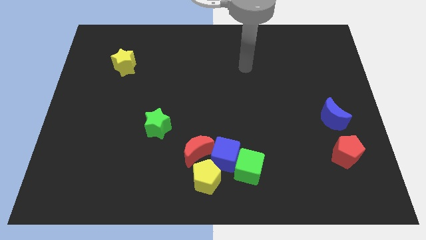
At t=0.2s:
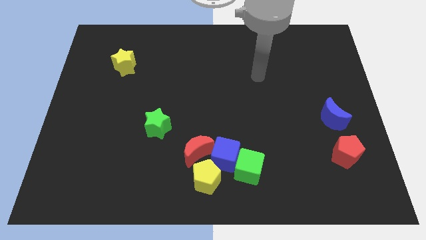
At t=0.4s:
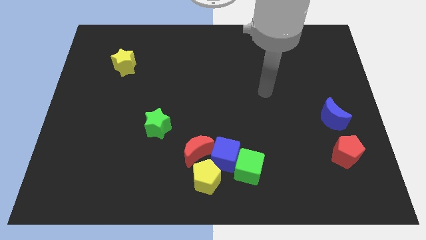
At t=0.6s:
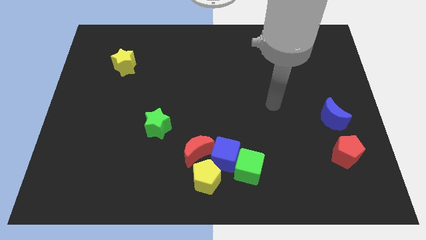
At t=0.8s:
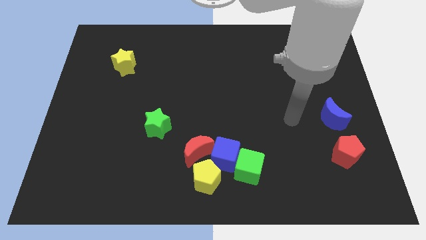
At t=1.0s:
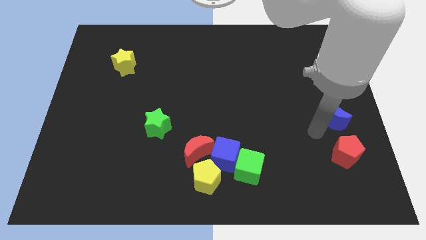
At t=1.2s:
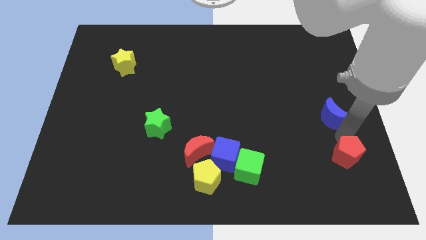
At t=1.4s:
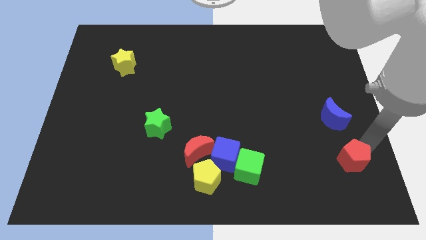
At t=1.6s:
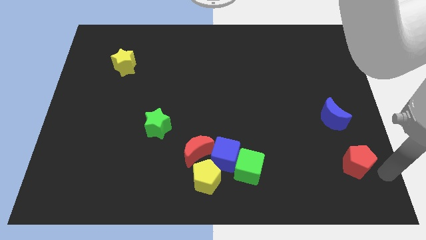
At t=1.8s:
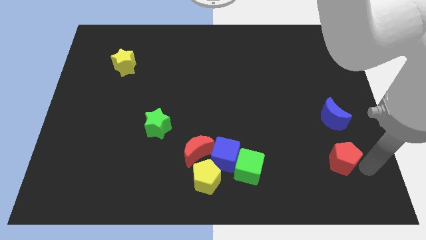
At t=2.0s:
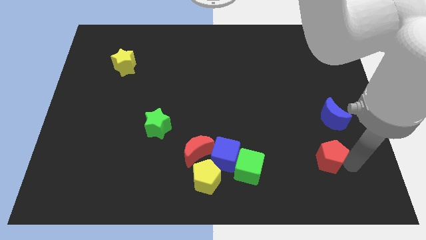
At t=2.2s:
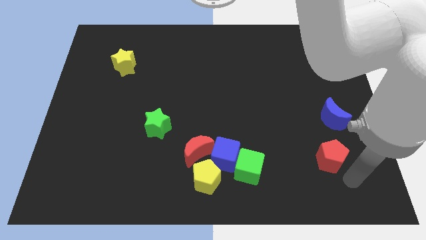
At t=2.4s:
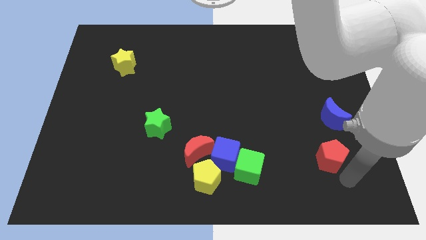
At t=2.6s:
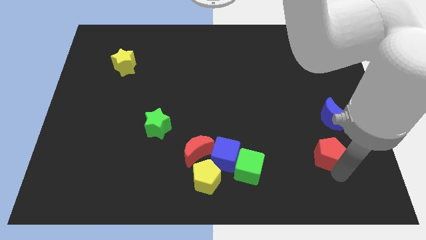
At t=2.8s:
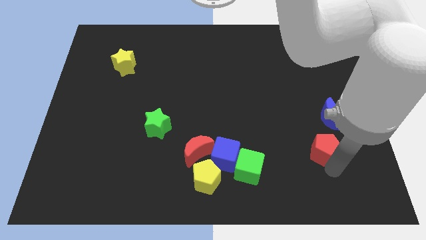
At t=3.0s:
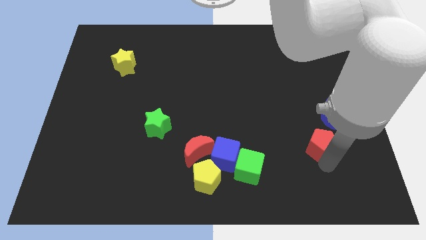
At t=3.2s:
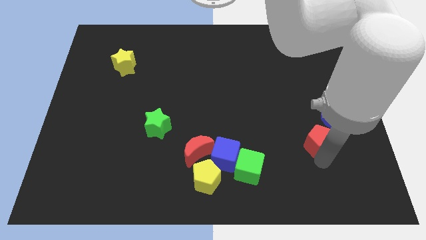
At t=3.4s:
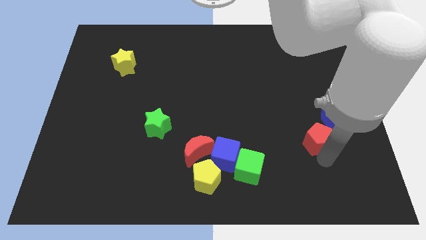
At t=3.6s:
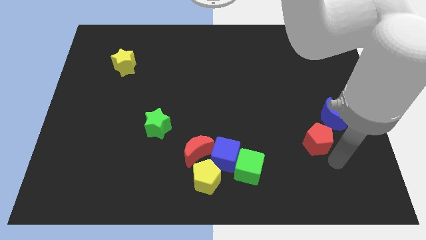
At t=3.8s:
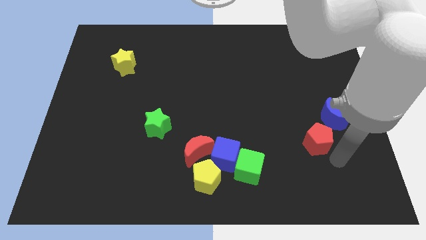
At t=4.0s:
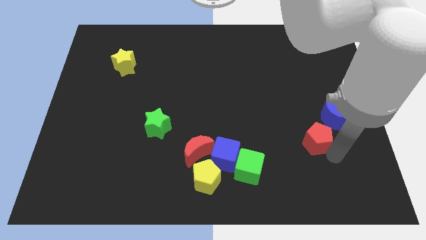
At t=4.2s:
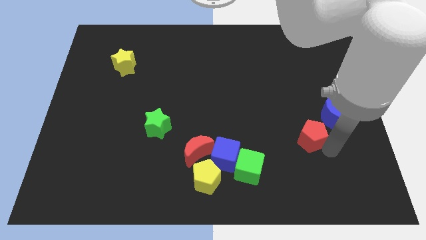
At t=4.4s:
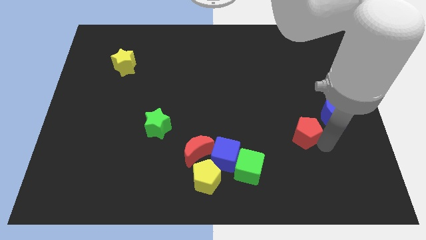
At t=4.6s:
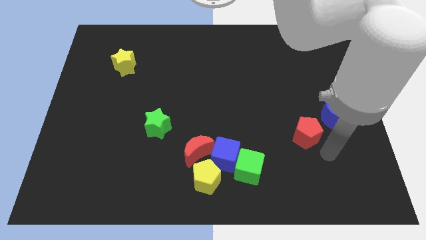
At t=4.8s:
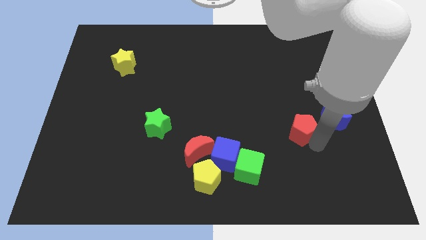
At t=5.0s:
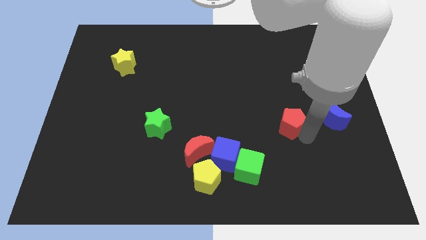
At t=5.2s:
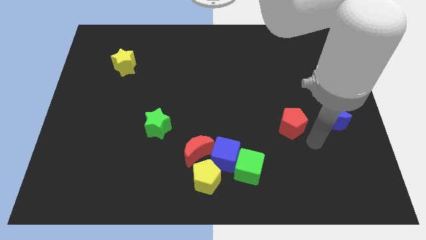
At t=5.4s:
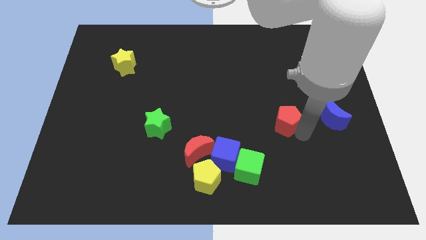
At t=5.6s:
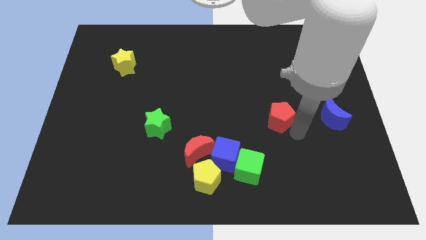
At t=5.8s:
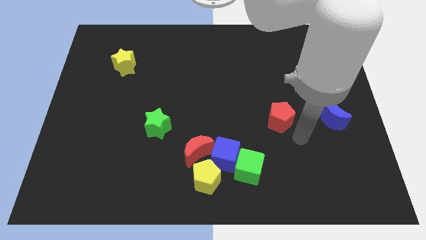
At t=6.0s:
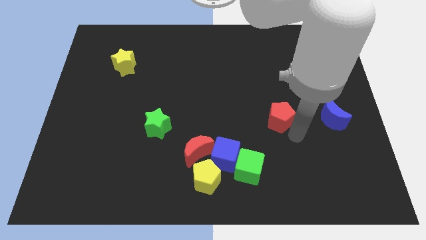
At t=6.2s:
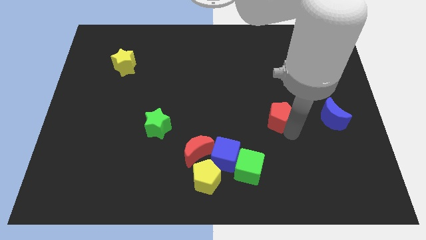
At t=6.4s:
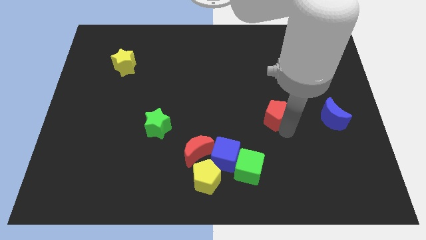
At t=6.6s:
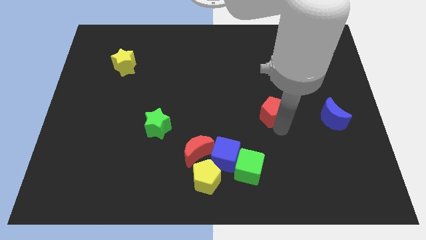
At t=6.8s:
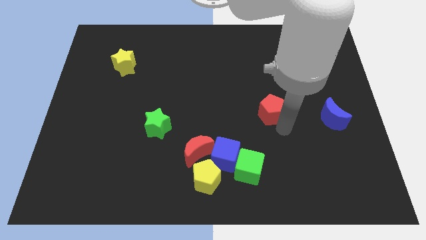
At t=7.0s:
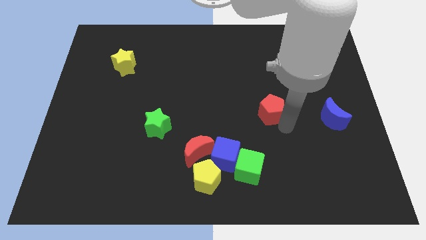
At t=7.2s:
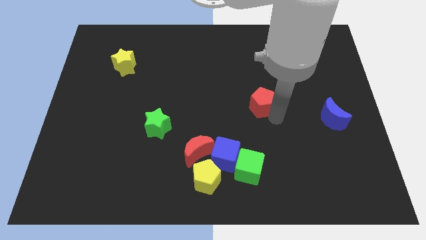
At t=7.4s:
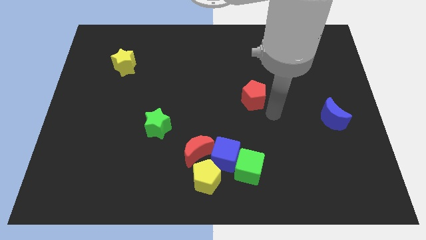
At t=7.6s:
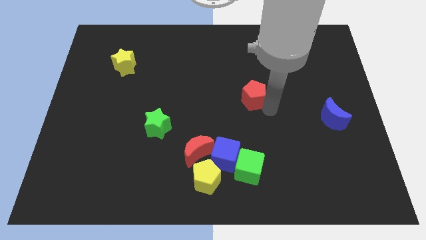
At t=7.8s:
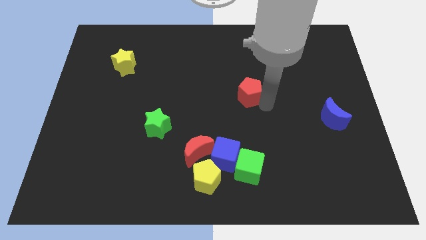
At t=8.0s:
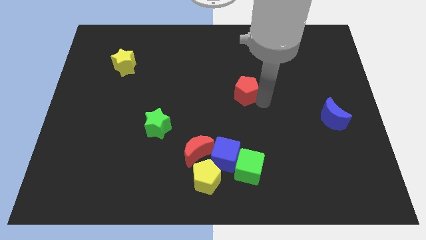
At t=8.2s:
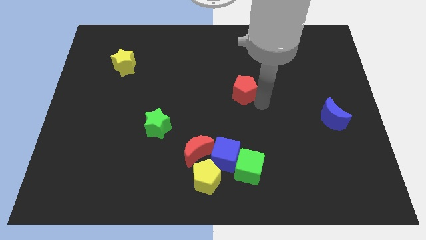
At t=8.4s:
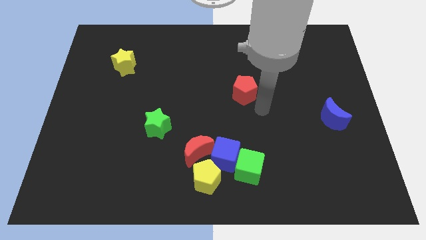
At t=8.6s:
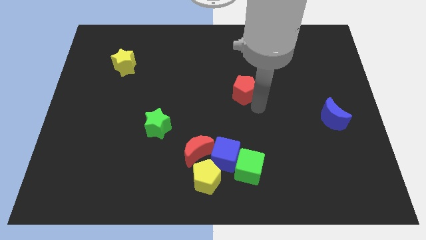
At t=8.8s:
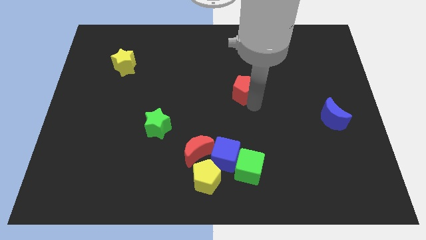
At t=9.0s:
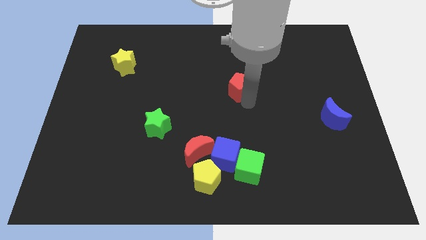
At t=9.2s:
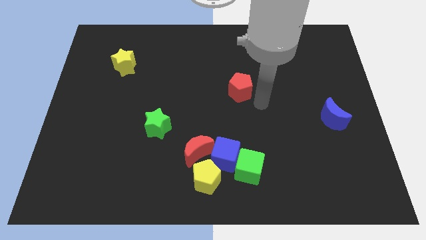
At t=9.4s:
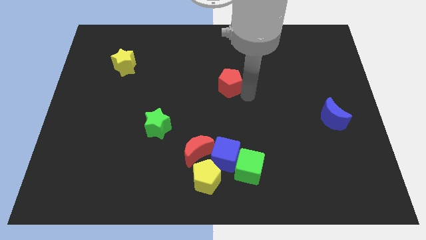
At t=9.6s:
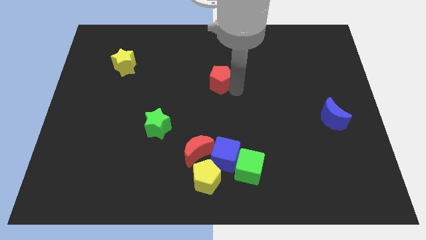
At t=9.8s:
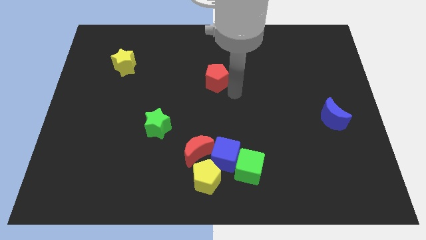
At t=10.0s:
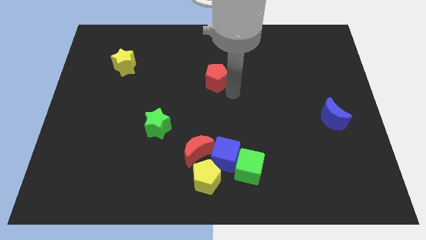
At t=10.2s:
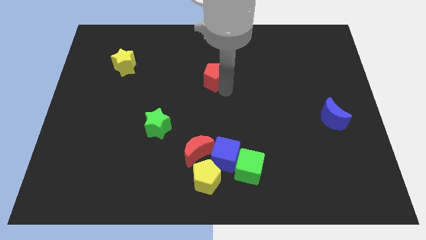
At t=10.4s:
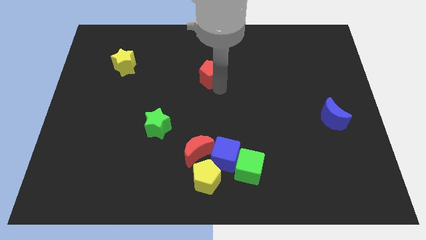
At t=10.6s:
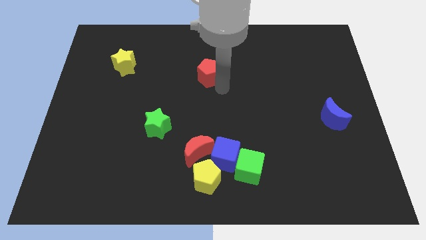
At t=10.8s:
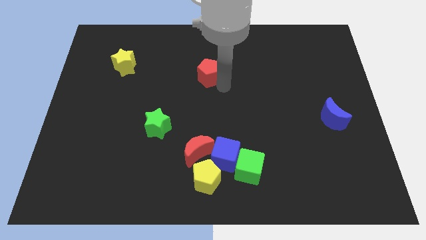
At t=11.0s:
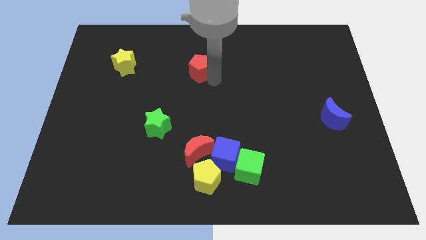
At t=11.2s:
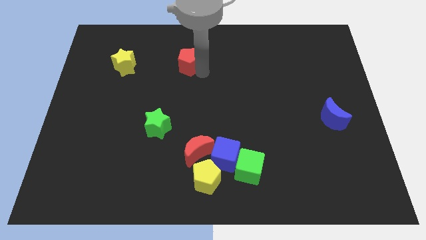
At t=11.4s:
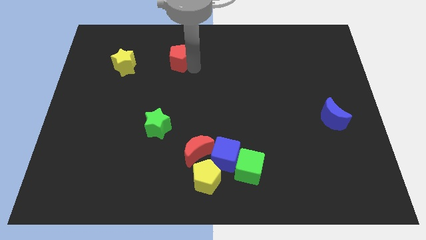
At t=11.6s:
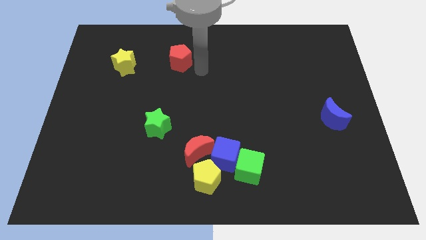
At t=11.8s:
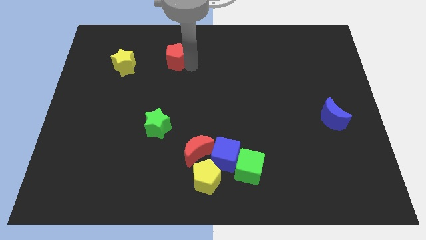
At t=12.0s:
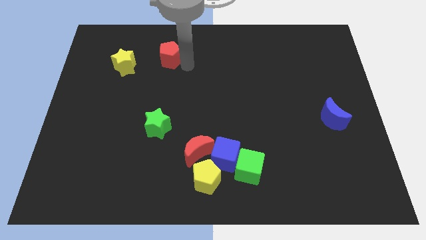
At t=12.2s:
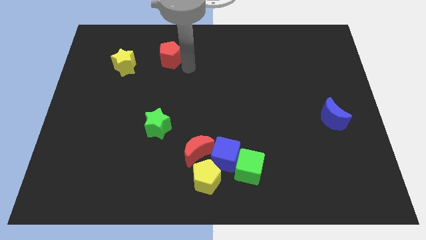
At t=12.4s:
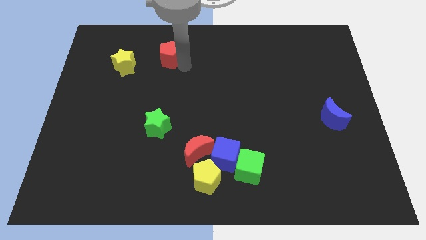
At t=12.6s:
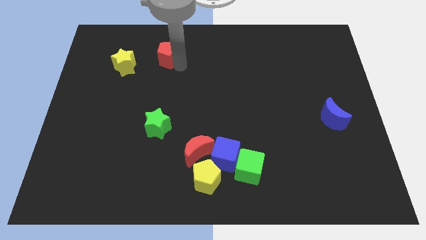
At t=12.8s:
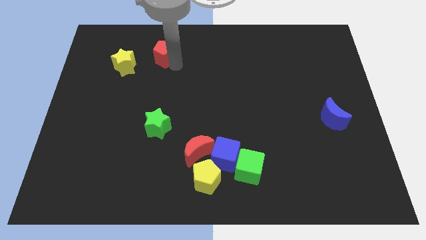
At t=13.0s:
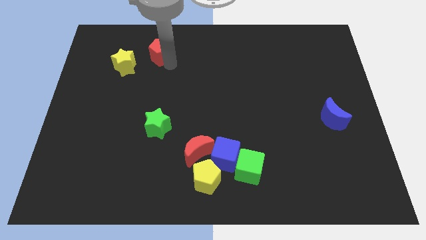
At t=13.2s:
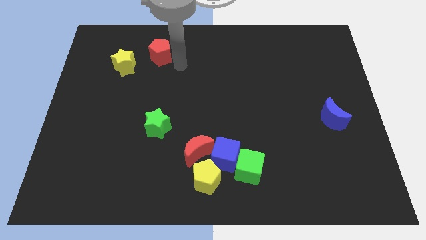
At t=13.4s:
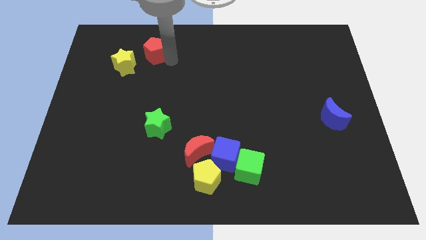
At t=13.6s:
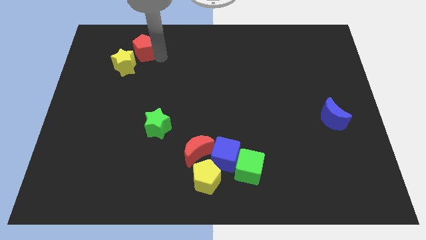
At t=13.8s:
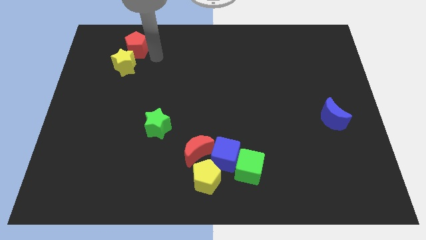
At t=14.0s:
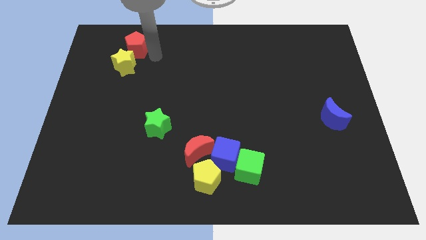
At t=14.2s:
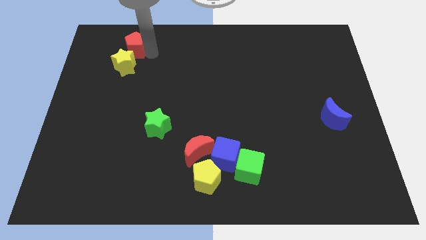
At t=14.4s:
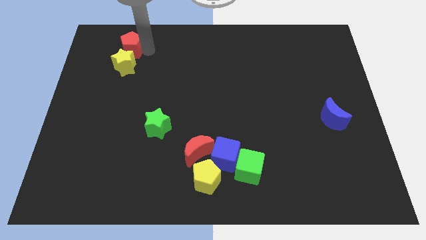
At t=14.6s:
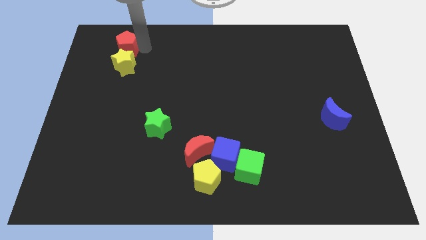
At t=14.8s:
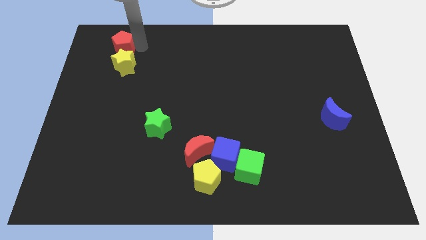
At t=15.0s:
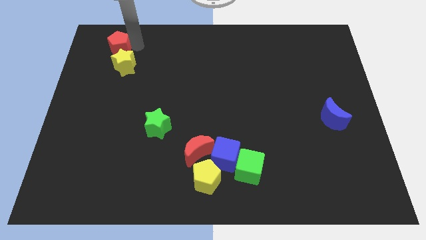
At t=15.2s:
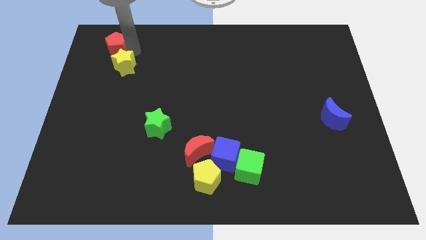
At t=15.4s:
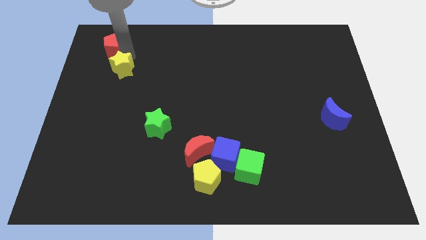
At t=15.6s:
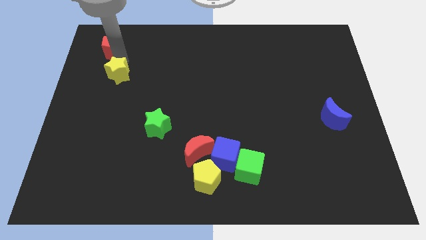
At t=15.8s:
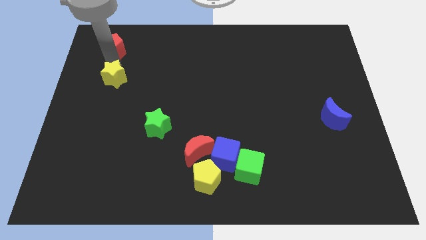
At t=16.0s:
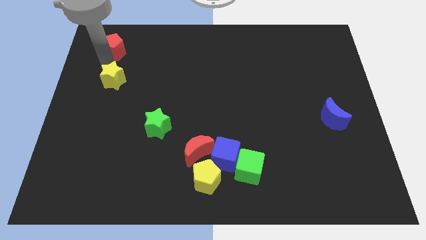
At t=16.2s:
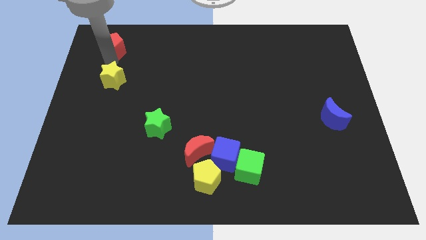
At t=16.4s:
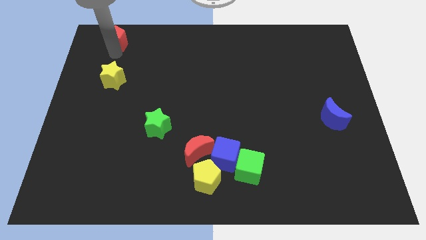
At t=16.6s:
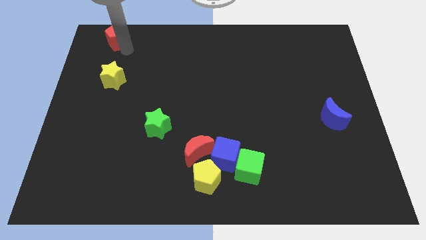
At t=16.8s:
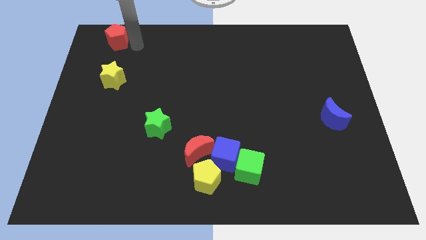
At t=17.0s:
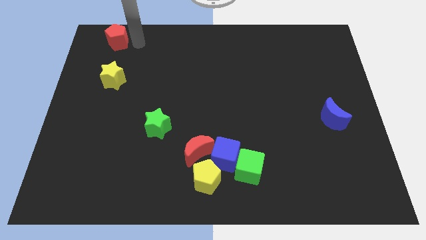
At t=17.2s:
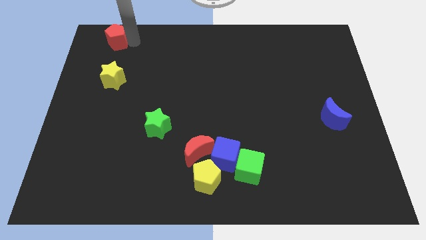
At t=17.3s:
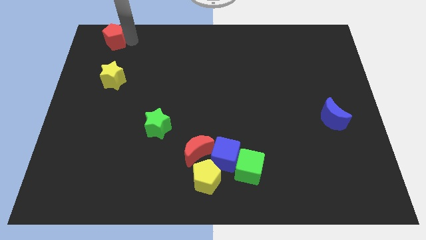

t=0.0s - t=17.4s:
put the red pentagon to the top left
